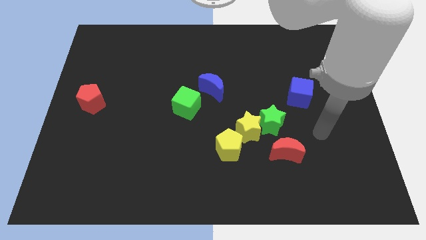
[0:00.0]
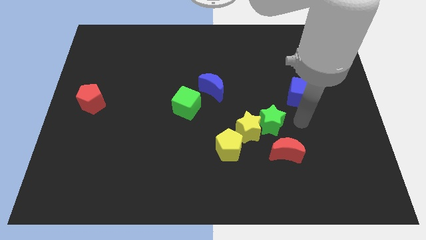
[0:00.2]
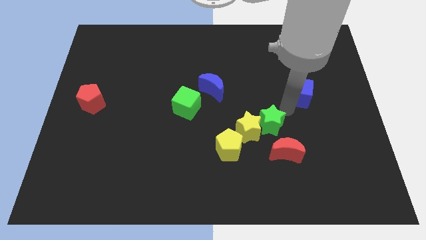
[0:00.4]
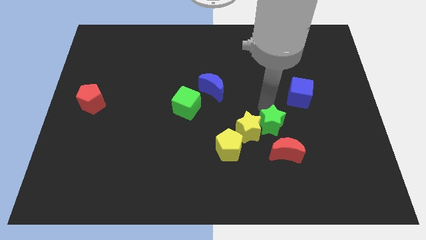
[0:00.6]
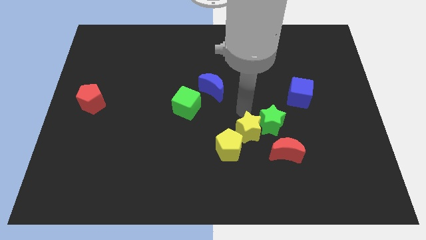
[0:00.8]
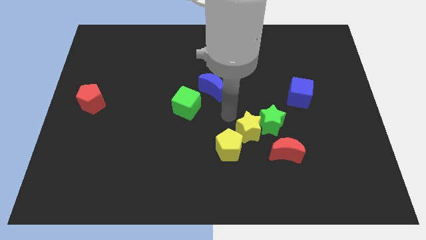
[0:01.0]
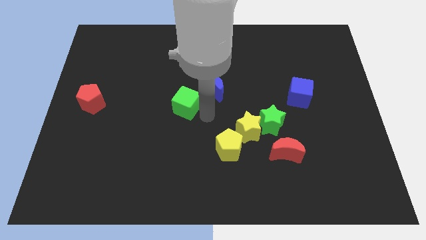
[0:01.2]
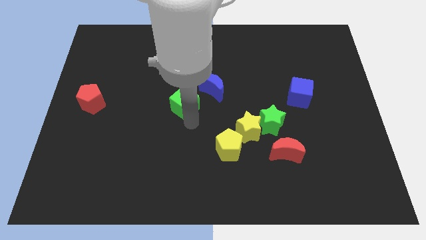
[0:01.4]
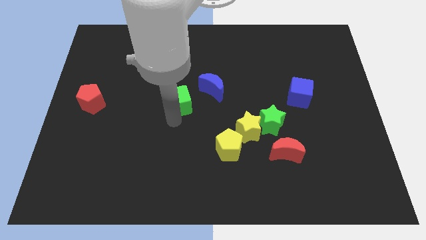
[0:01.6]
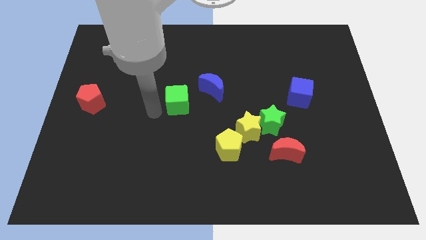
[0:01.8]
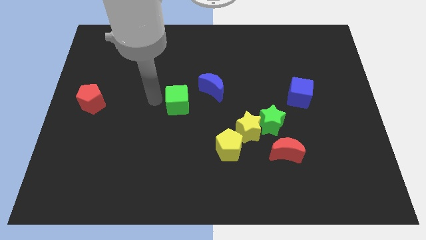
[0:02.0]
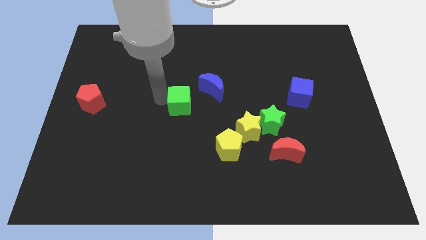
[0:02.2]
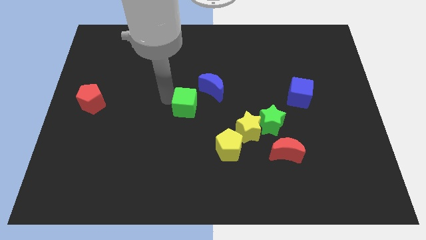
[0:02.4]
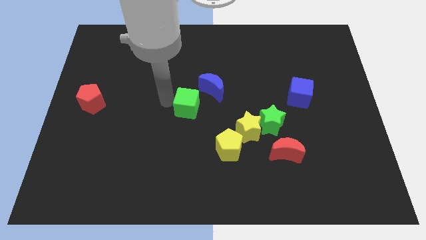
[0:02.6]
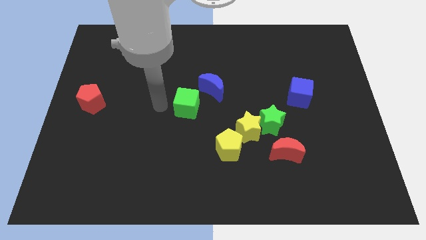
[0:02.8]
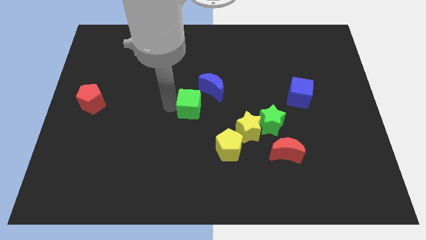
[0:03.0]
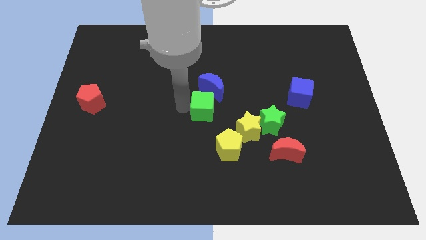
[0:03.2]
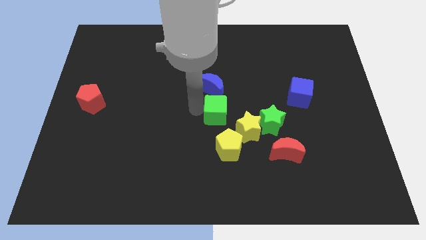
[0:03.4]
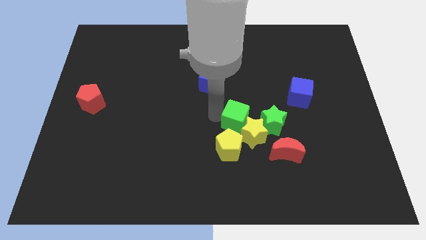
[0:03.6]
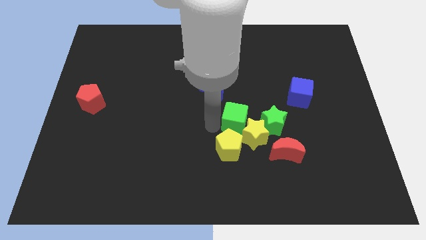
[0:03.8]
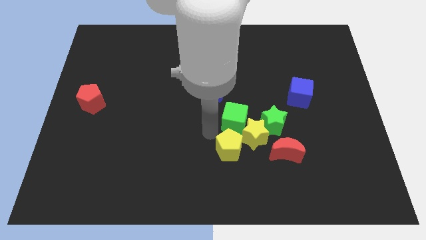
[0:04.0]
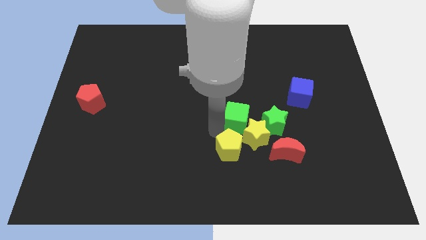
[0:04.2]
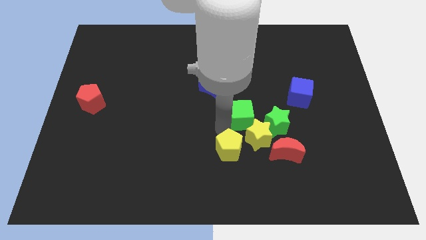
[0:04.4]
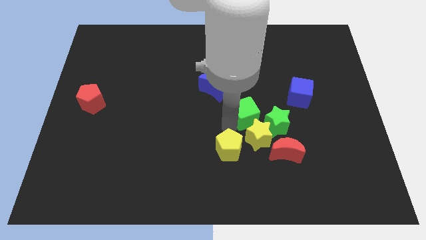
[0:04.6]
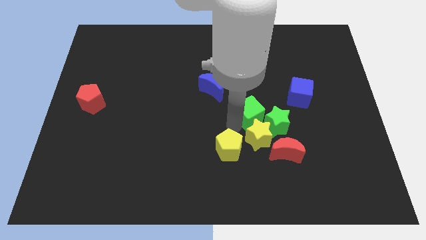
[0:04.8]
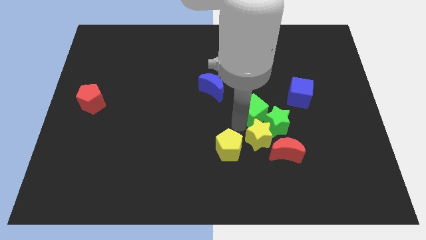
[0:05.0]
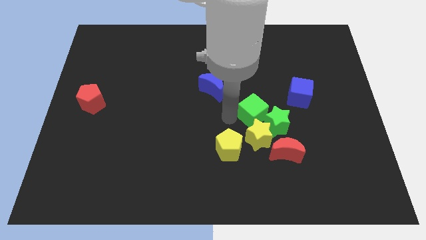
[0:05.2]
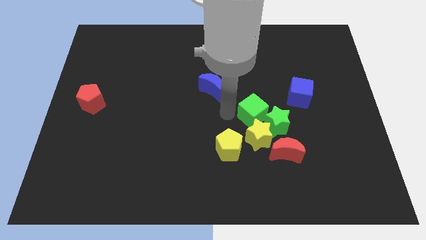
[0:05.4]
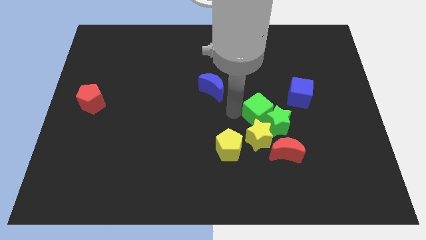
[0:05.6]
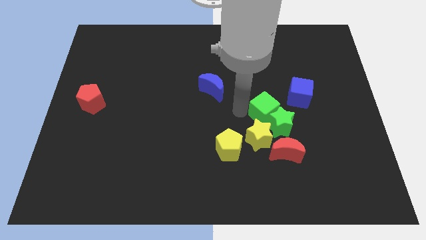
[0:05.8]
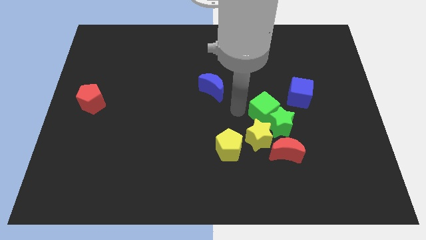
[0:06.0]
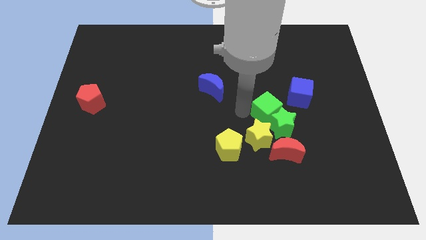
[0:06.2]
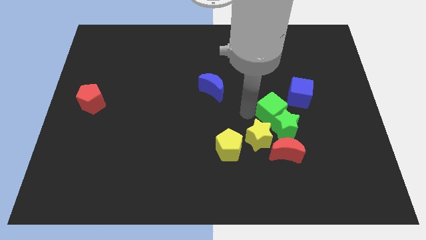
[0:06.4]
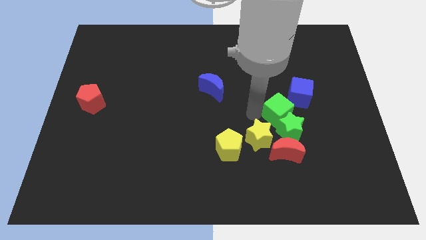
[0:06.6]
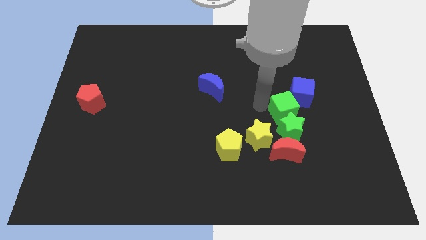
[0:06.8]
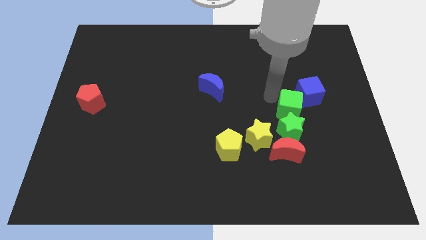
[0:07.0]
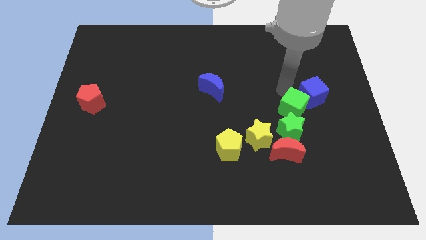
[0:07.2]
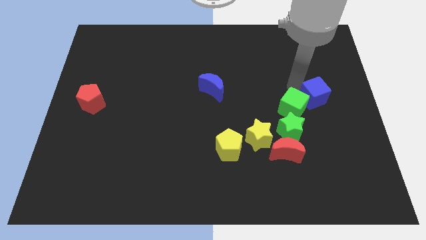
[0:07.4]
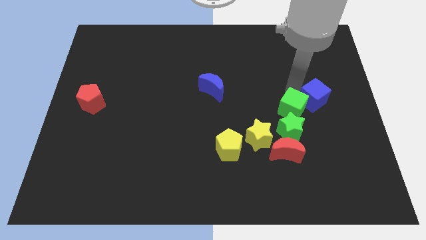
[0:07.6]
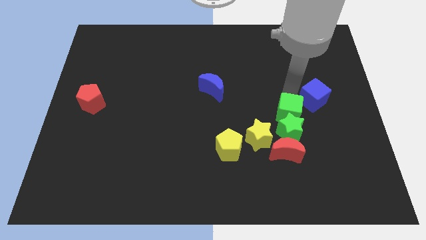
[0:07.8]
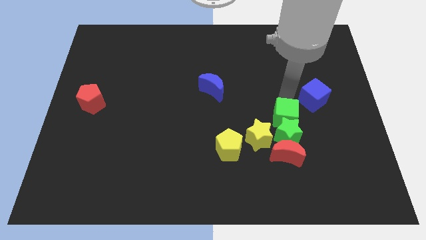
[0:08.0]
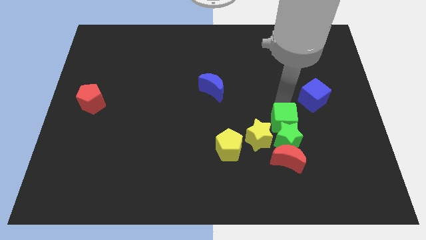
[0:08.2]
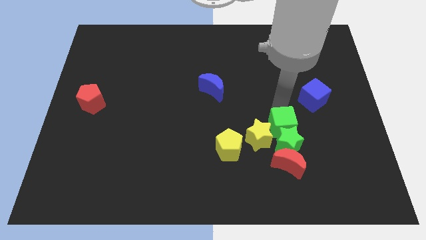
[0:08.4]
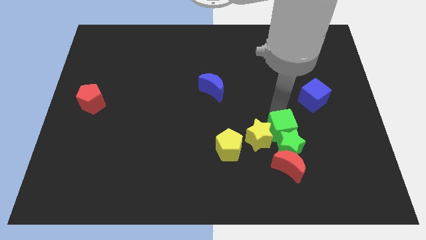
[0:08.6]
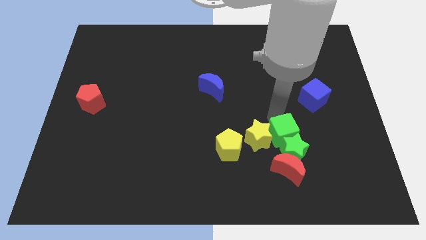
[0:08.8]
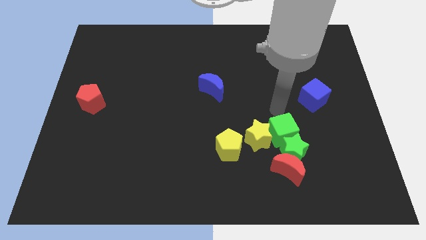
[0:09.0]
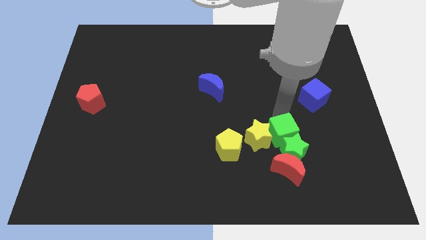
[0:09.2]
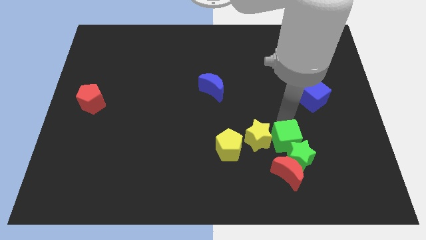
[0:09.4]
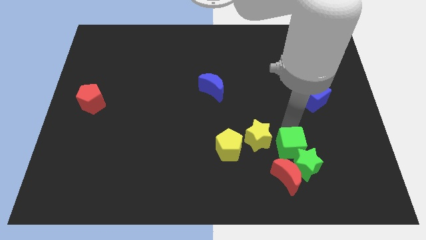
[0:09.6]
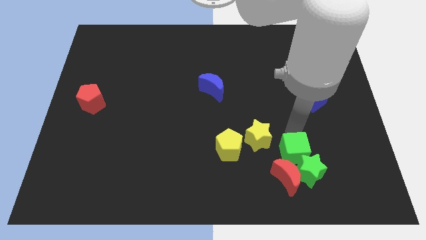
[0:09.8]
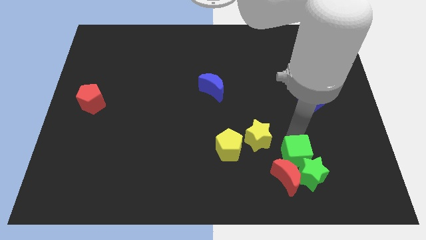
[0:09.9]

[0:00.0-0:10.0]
slide the green cube towards the red moon

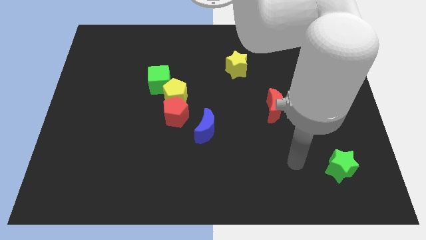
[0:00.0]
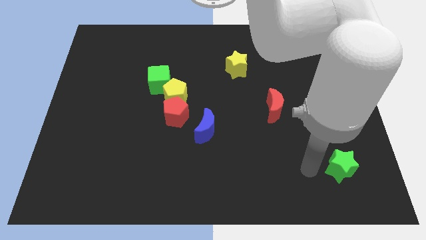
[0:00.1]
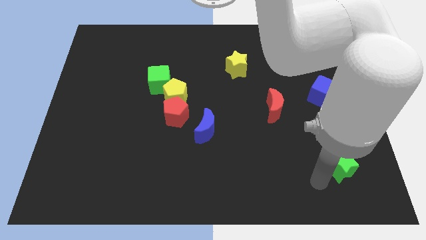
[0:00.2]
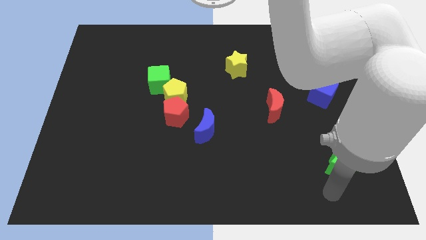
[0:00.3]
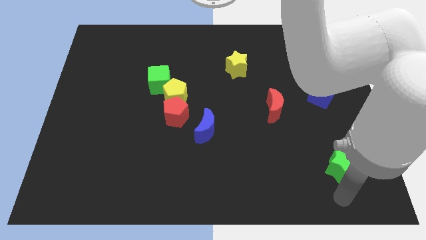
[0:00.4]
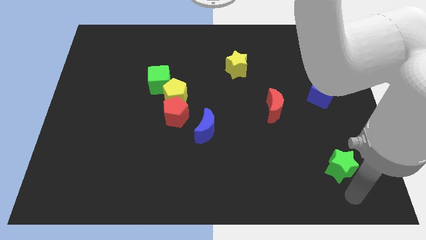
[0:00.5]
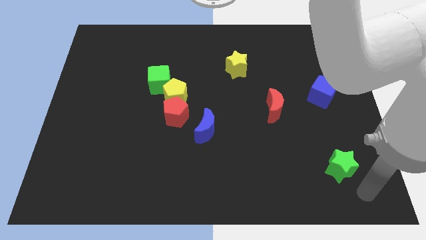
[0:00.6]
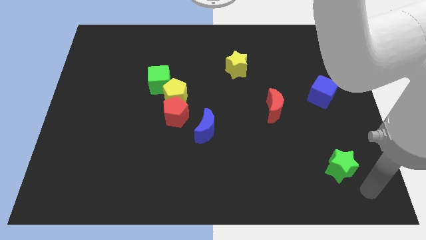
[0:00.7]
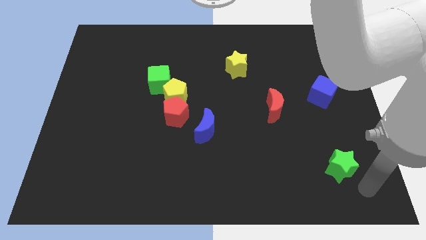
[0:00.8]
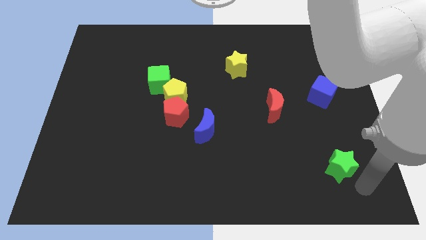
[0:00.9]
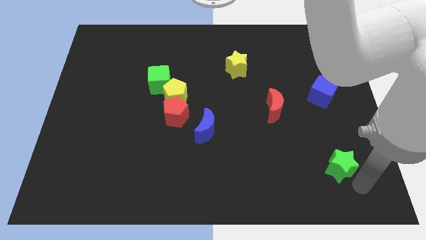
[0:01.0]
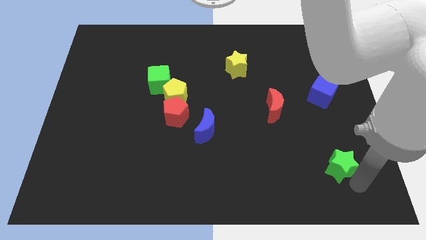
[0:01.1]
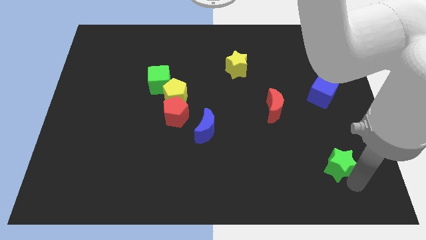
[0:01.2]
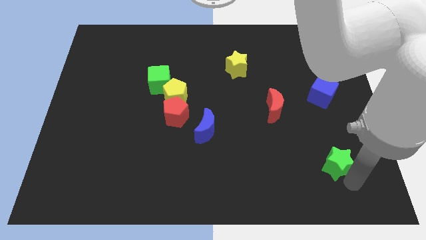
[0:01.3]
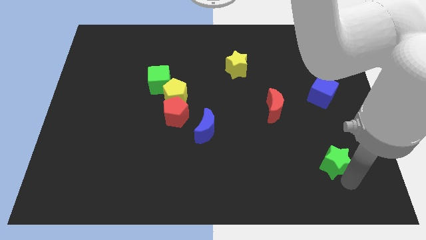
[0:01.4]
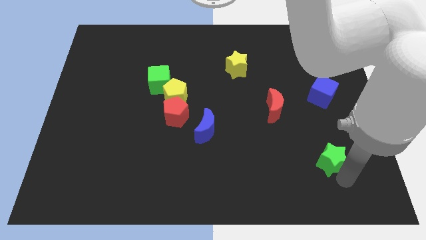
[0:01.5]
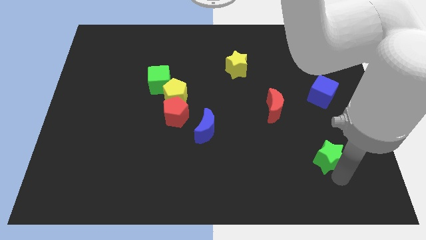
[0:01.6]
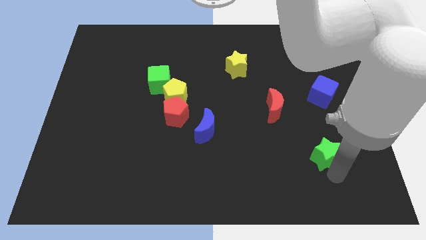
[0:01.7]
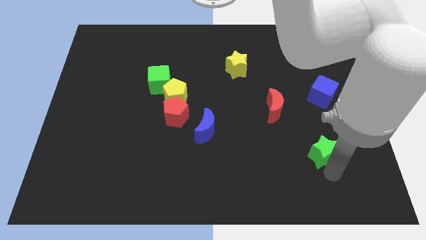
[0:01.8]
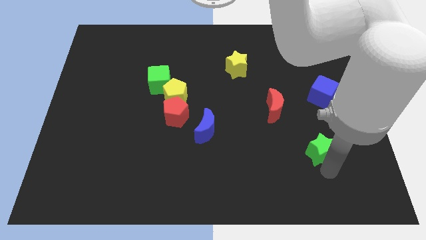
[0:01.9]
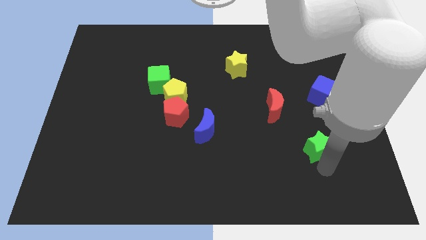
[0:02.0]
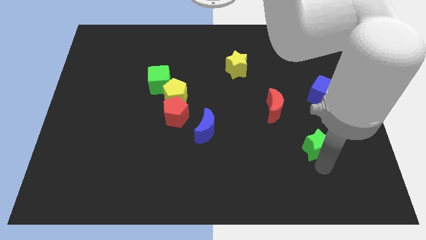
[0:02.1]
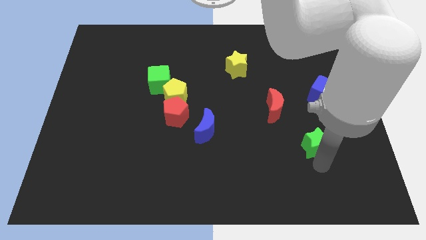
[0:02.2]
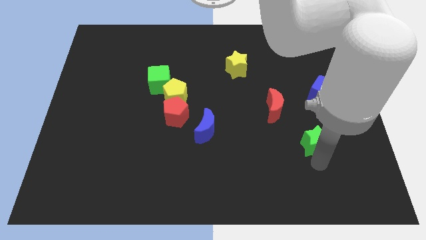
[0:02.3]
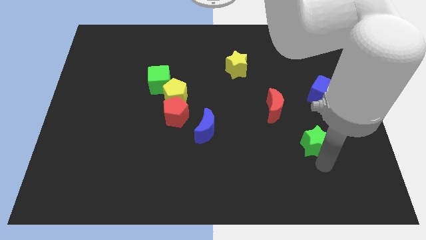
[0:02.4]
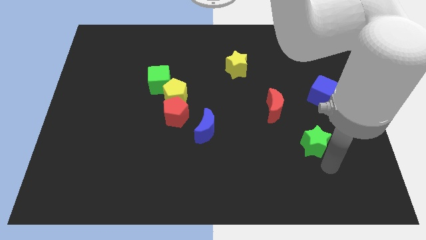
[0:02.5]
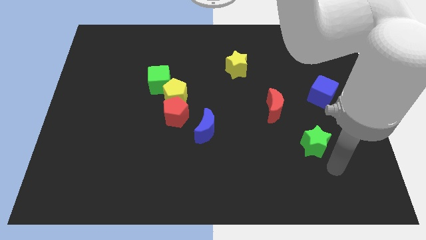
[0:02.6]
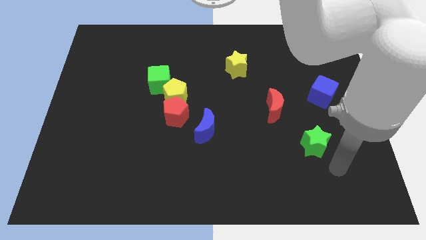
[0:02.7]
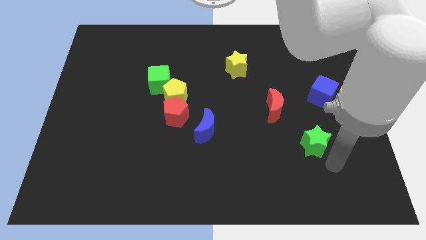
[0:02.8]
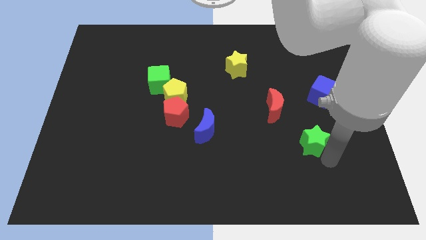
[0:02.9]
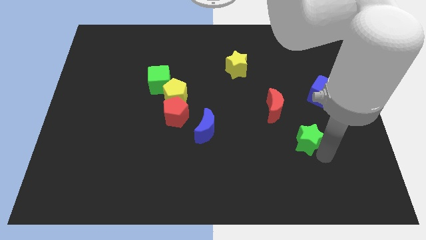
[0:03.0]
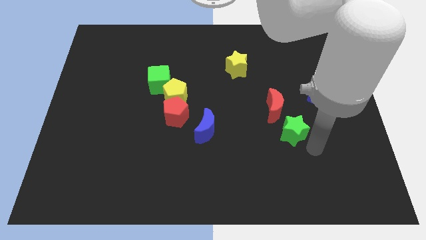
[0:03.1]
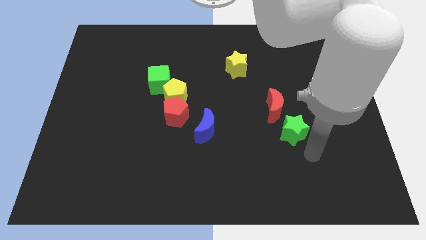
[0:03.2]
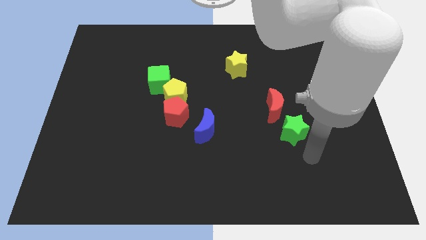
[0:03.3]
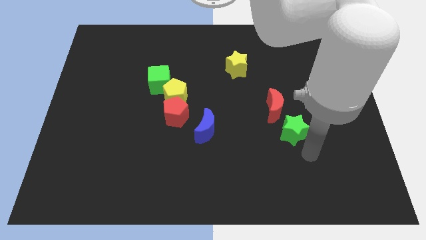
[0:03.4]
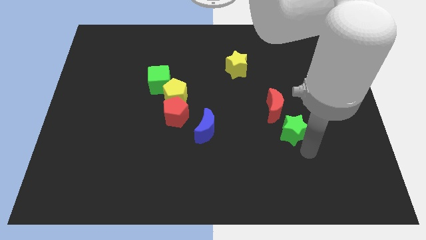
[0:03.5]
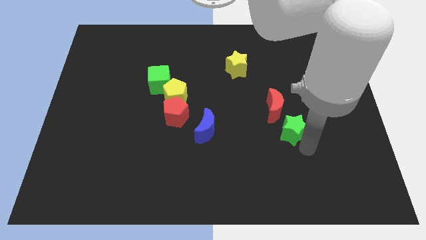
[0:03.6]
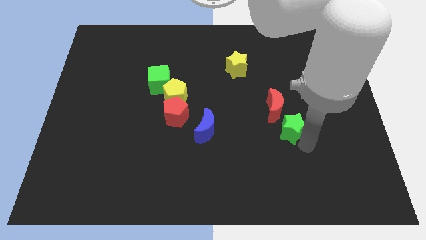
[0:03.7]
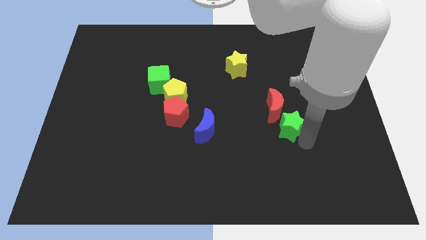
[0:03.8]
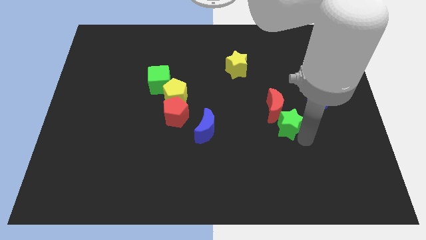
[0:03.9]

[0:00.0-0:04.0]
move the green star next to the red moon
